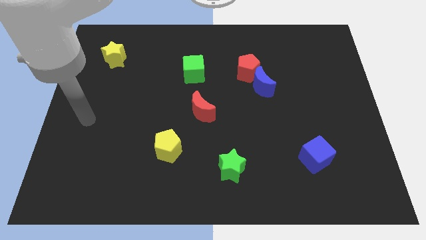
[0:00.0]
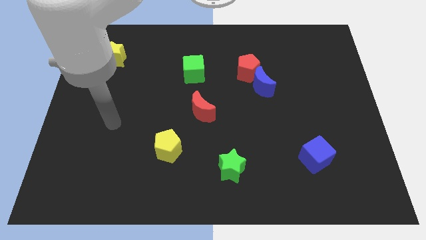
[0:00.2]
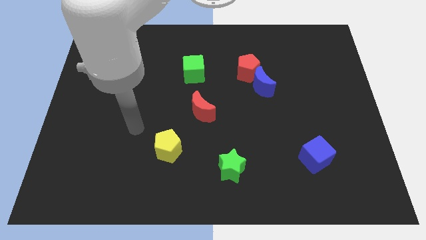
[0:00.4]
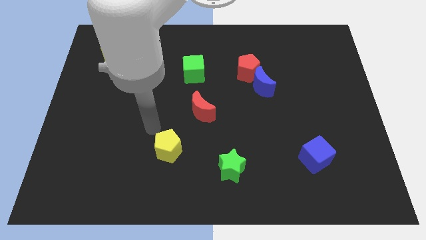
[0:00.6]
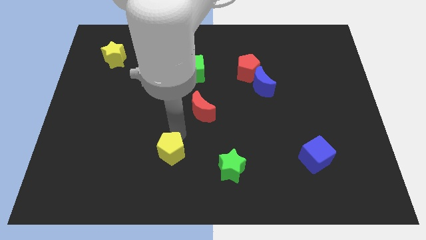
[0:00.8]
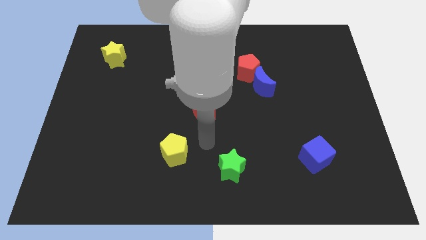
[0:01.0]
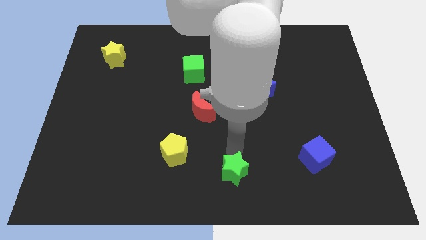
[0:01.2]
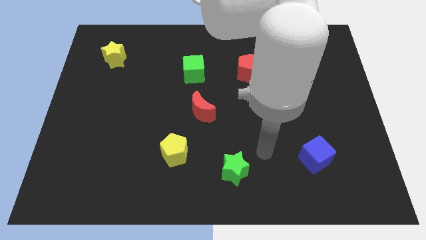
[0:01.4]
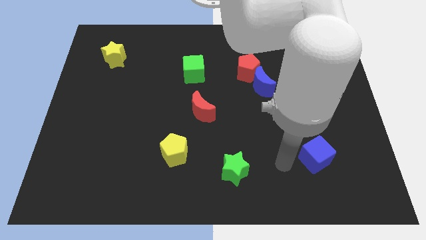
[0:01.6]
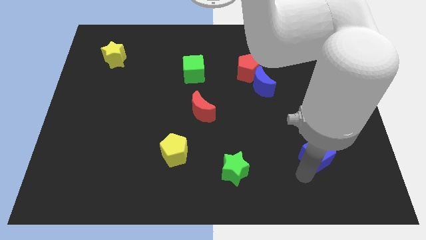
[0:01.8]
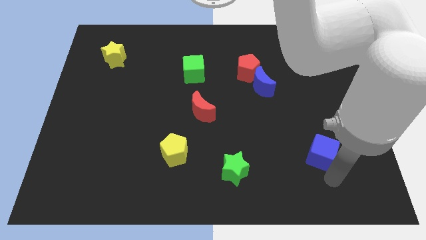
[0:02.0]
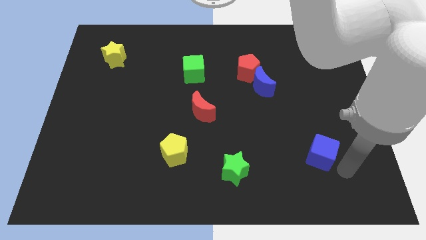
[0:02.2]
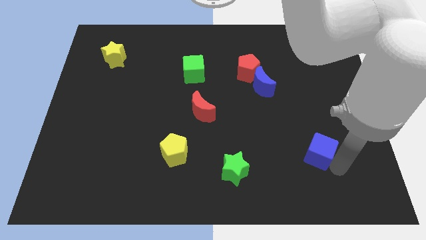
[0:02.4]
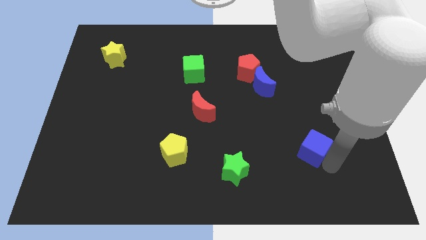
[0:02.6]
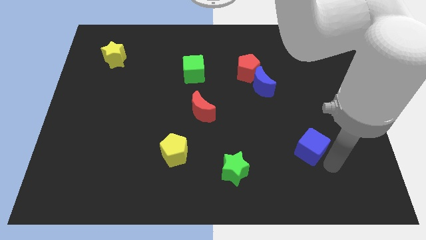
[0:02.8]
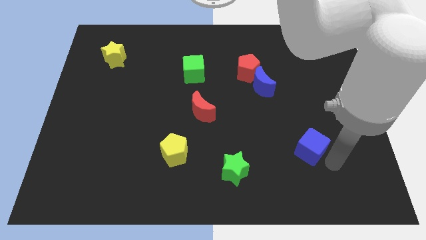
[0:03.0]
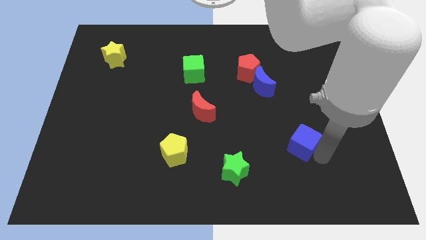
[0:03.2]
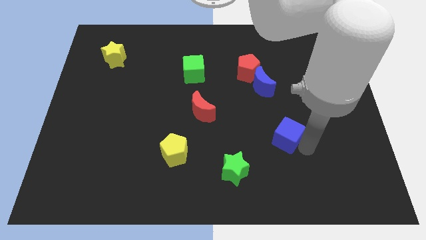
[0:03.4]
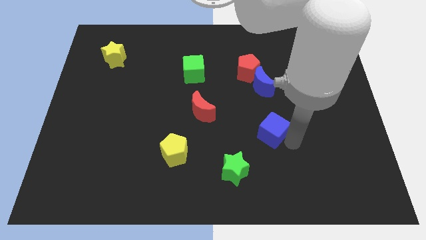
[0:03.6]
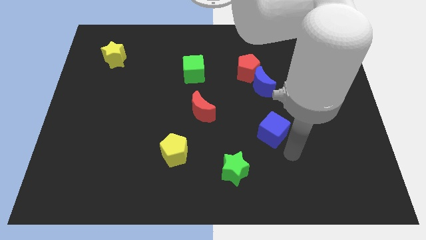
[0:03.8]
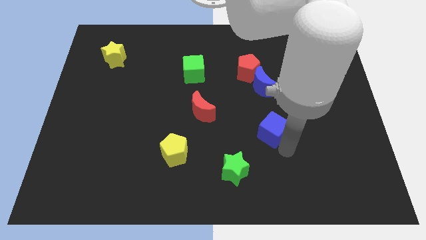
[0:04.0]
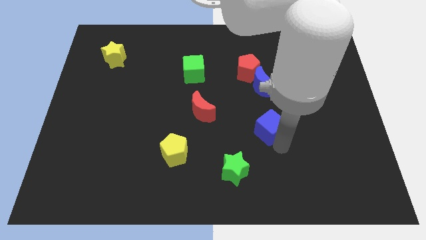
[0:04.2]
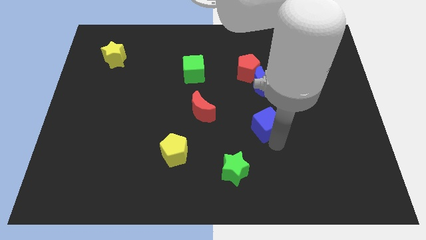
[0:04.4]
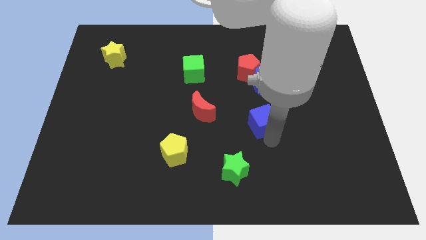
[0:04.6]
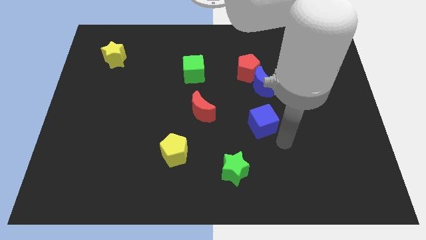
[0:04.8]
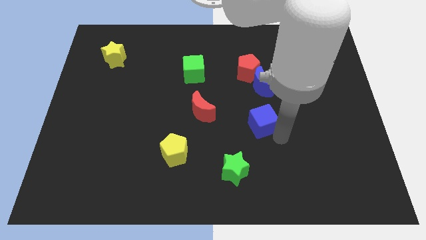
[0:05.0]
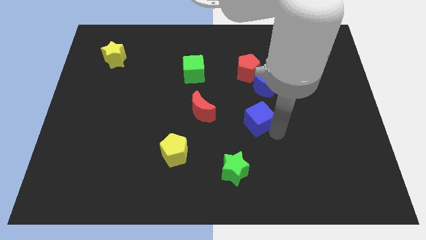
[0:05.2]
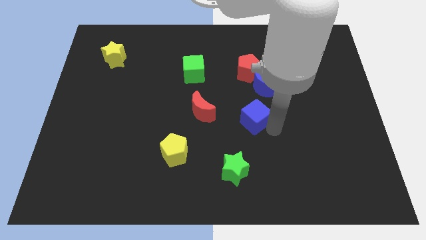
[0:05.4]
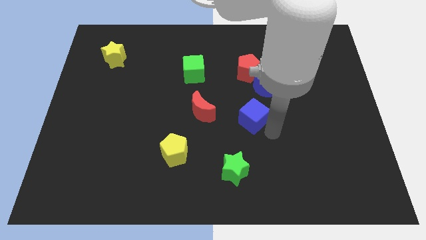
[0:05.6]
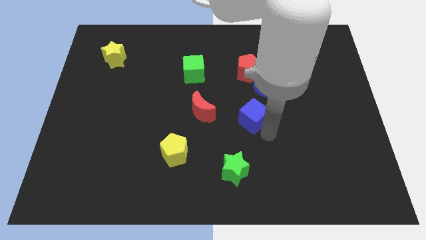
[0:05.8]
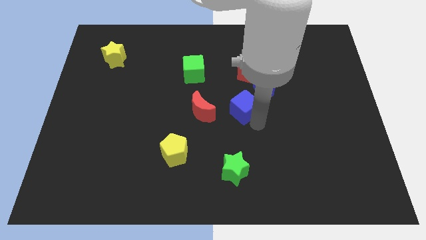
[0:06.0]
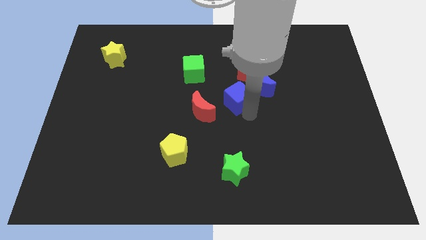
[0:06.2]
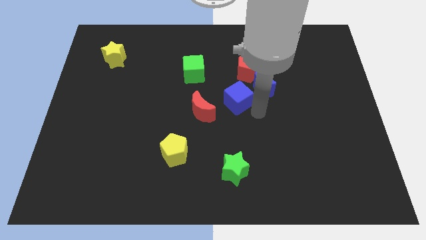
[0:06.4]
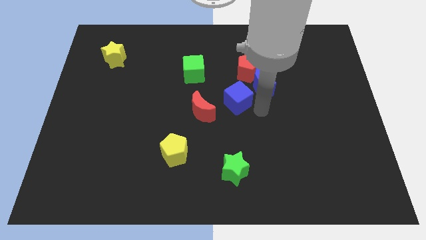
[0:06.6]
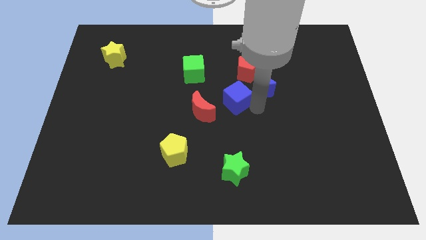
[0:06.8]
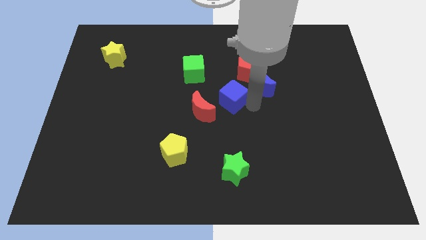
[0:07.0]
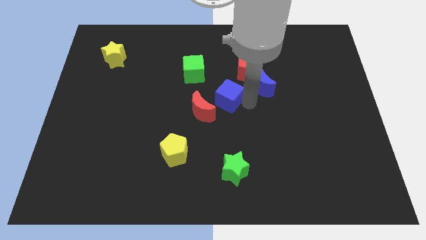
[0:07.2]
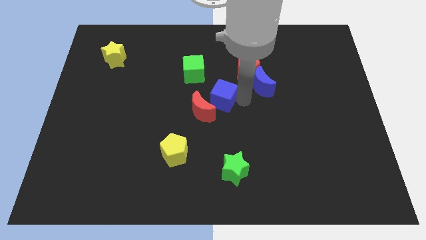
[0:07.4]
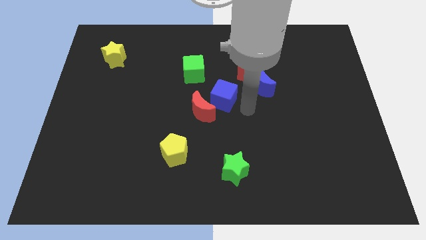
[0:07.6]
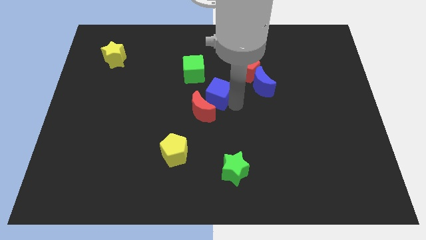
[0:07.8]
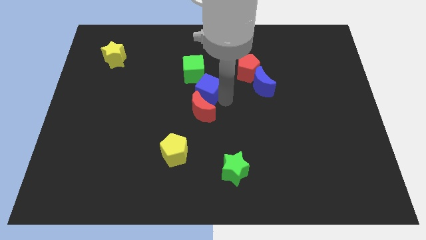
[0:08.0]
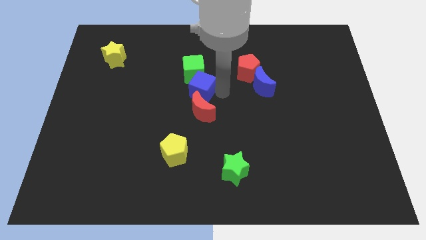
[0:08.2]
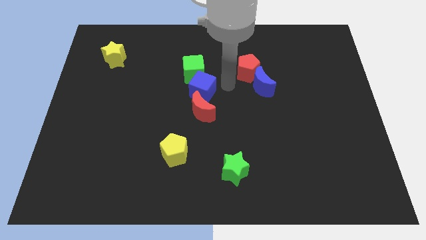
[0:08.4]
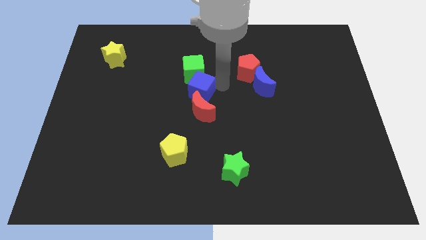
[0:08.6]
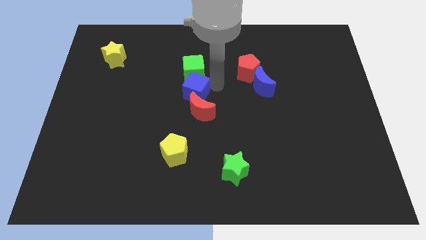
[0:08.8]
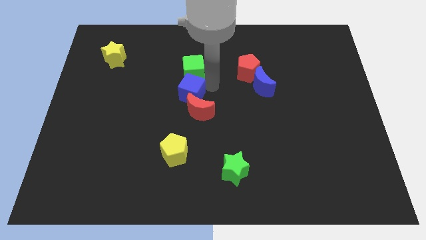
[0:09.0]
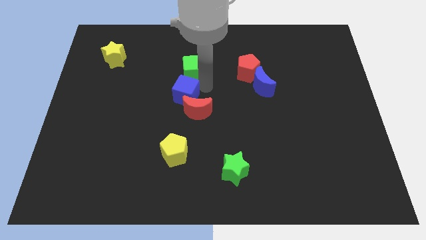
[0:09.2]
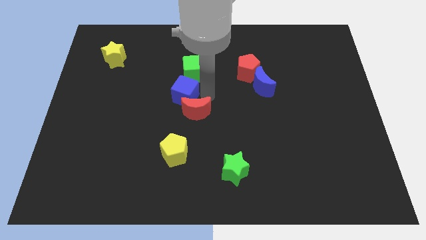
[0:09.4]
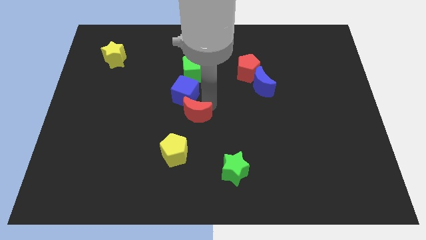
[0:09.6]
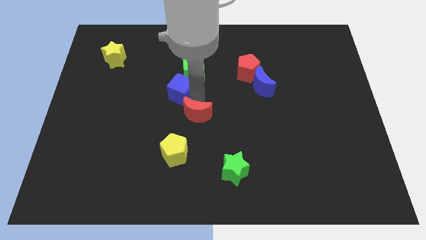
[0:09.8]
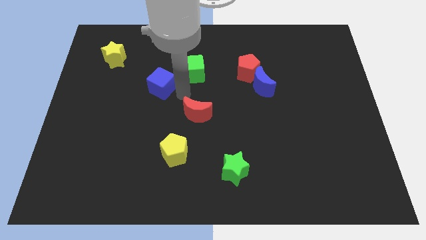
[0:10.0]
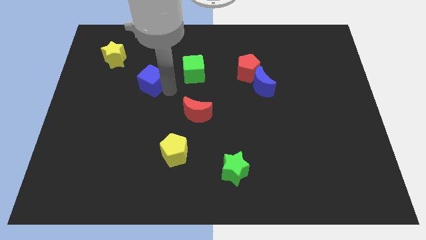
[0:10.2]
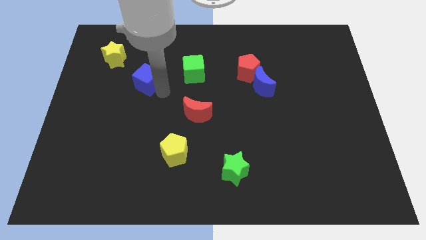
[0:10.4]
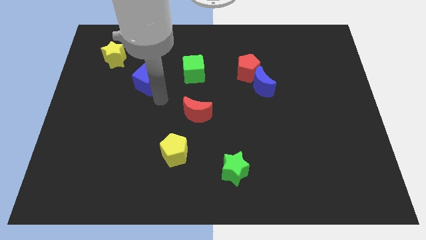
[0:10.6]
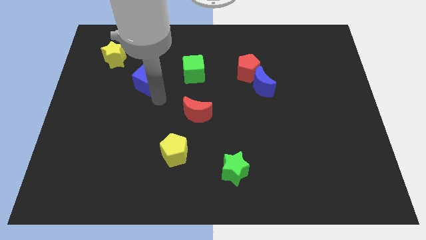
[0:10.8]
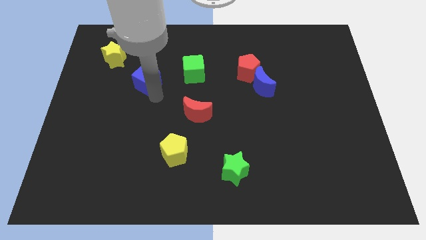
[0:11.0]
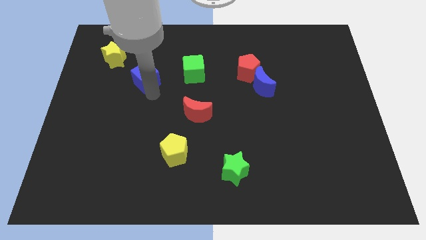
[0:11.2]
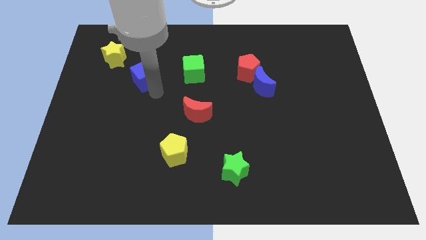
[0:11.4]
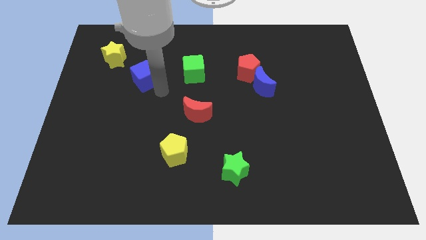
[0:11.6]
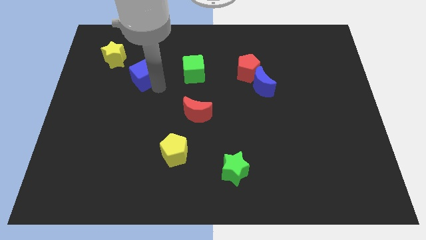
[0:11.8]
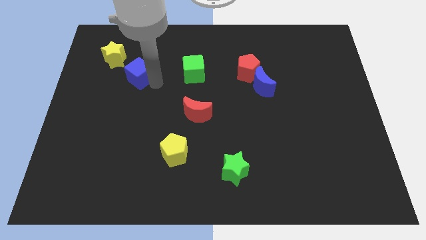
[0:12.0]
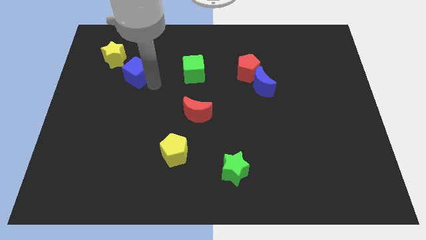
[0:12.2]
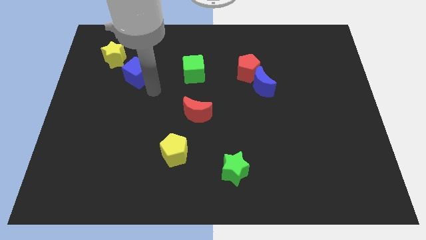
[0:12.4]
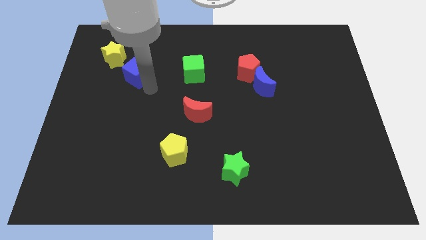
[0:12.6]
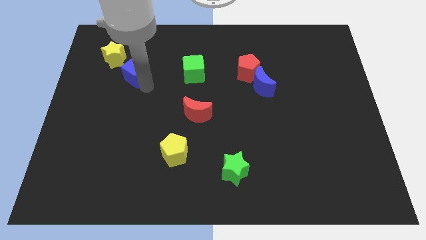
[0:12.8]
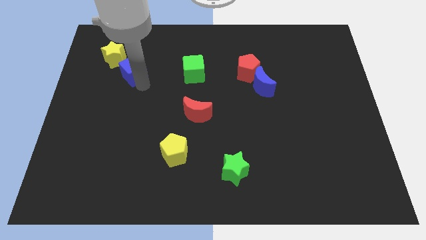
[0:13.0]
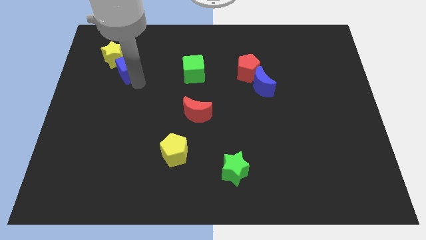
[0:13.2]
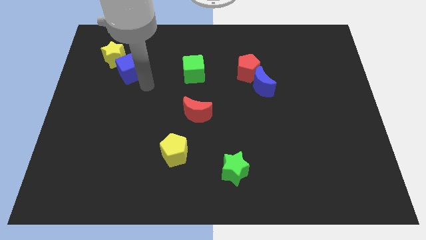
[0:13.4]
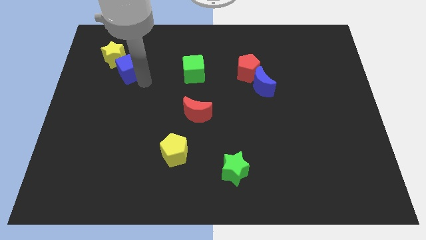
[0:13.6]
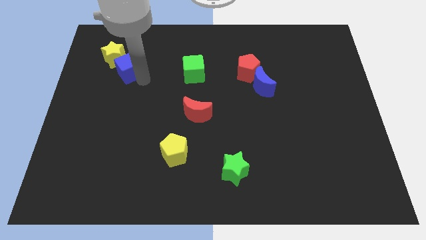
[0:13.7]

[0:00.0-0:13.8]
put the blue cube next to the yellow star

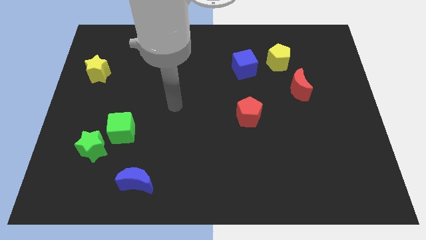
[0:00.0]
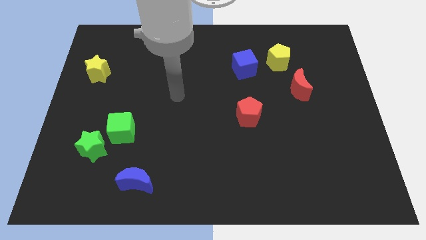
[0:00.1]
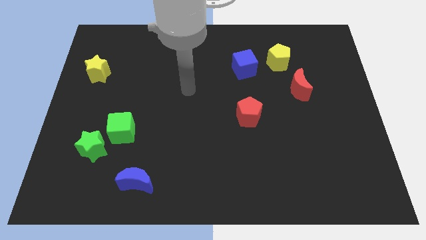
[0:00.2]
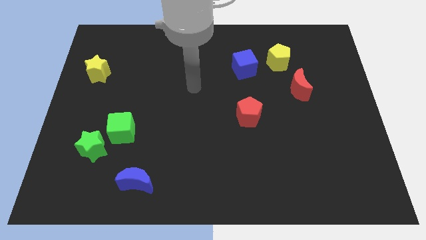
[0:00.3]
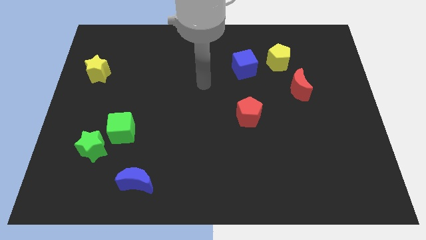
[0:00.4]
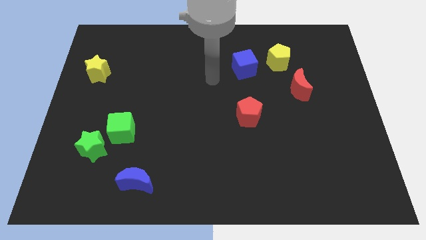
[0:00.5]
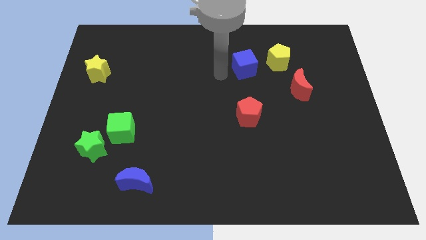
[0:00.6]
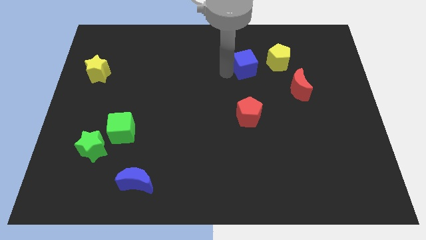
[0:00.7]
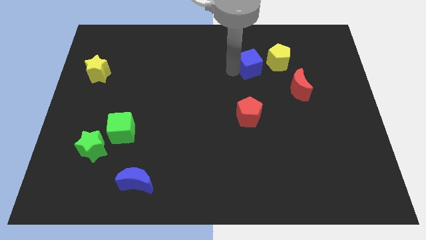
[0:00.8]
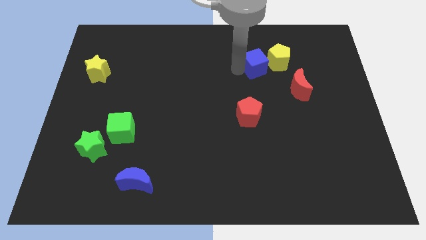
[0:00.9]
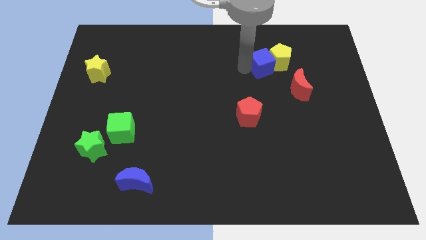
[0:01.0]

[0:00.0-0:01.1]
push the blue cube towards the yellow pentagon
